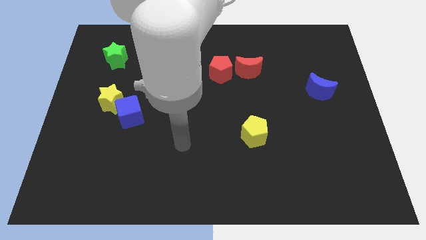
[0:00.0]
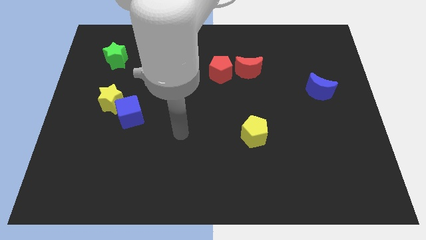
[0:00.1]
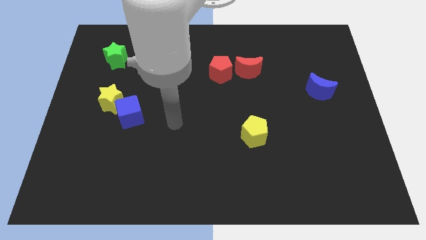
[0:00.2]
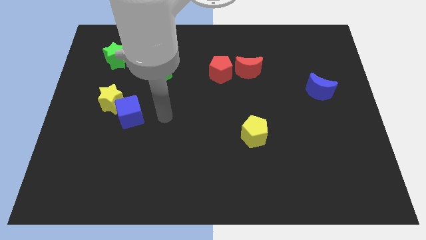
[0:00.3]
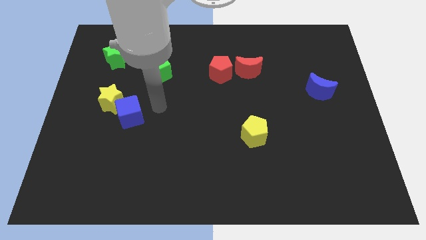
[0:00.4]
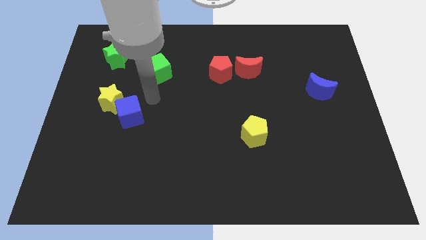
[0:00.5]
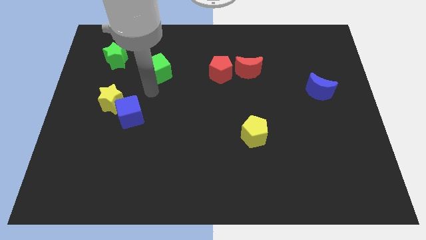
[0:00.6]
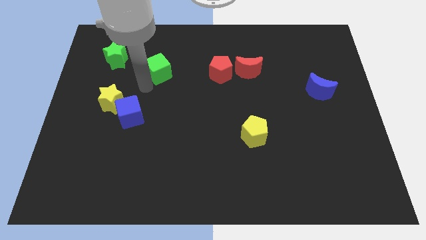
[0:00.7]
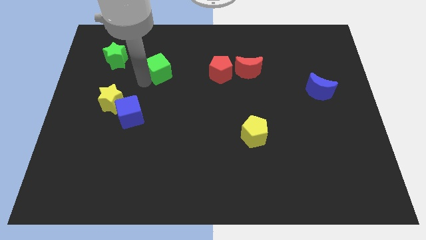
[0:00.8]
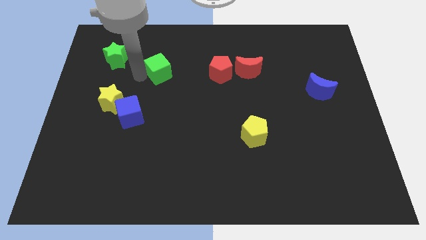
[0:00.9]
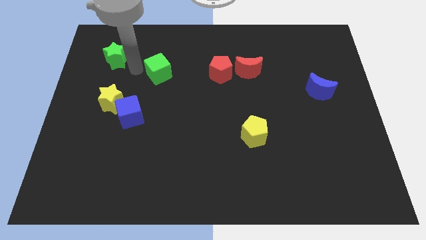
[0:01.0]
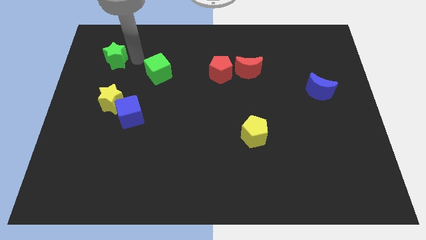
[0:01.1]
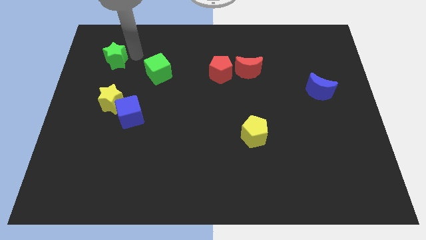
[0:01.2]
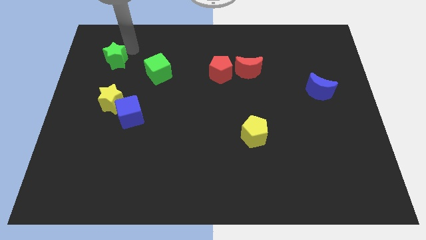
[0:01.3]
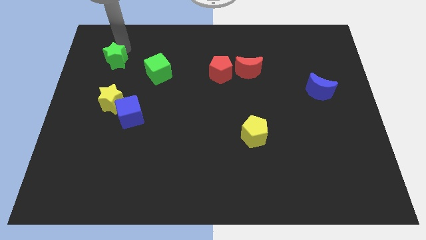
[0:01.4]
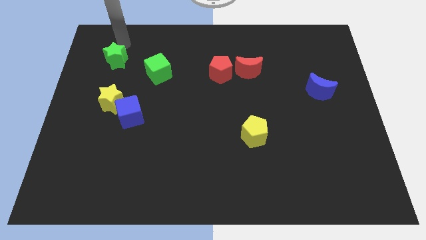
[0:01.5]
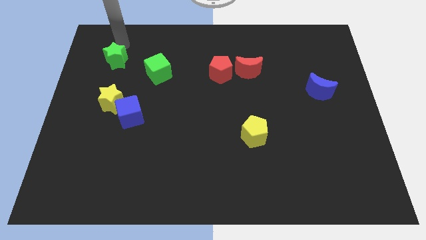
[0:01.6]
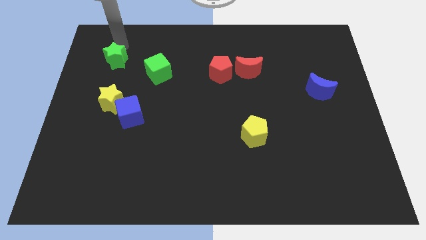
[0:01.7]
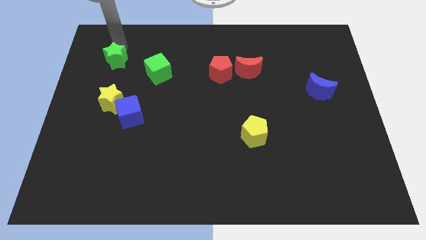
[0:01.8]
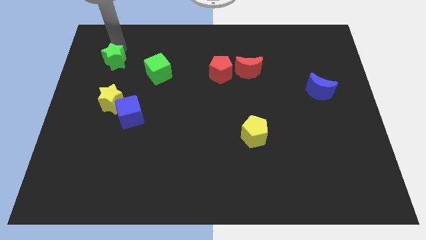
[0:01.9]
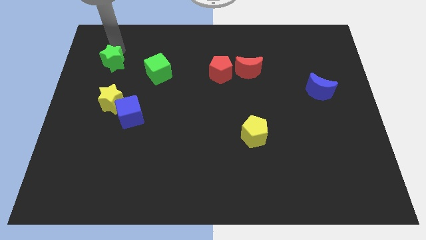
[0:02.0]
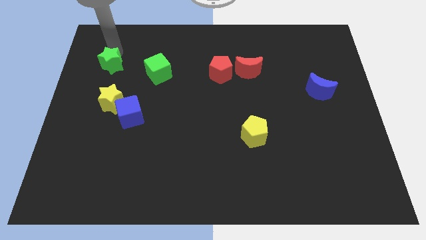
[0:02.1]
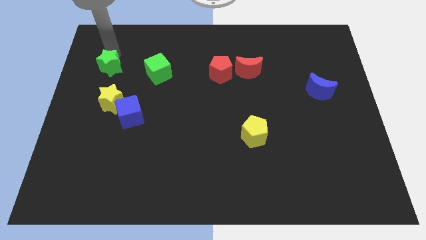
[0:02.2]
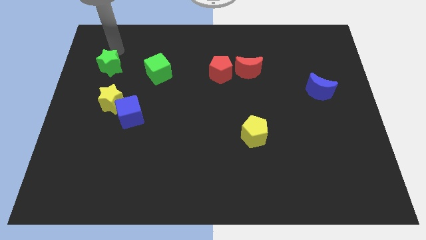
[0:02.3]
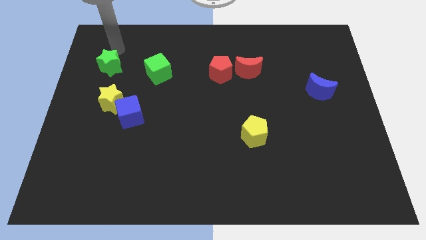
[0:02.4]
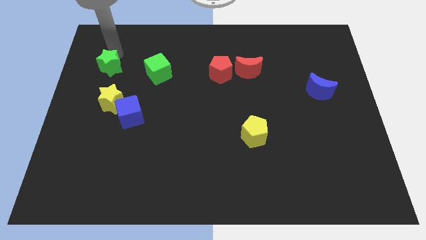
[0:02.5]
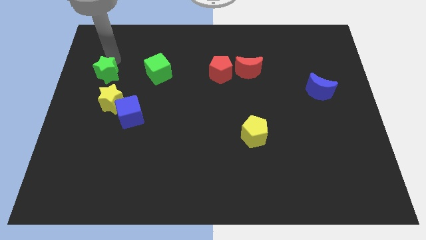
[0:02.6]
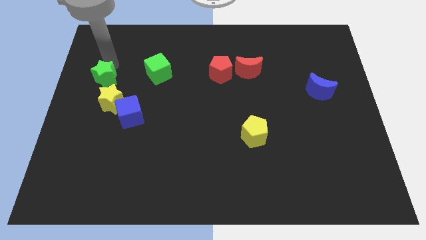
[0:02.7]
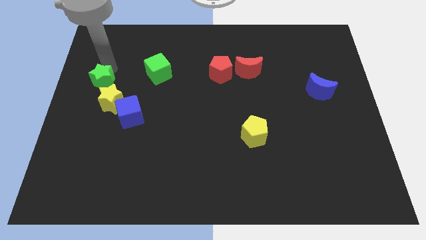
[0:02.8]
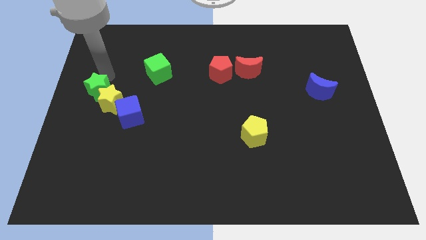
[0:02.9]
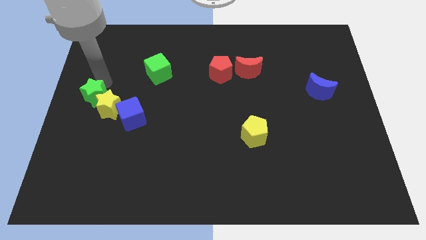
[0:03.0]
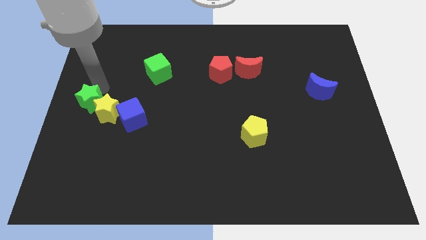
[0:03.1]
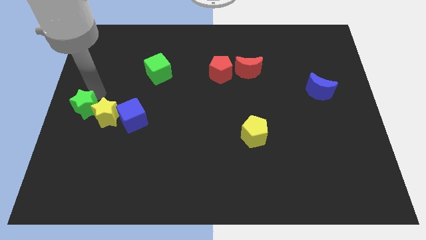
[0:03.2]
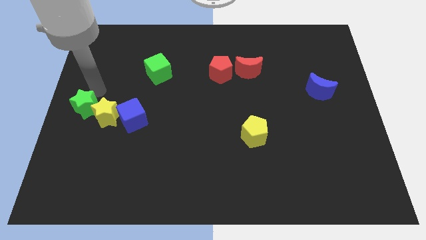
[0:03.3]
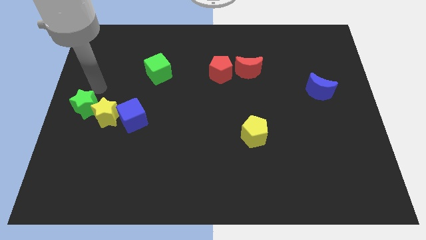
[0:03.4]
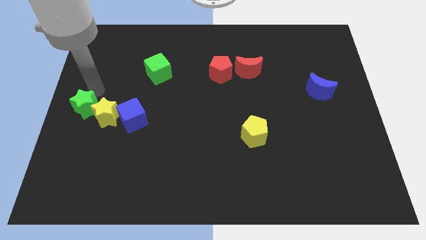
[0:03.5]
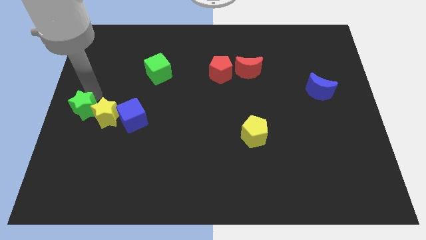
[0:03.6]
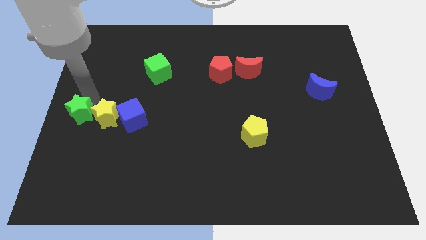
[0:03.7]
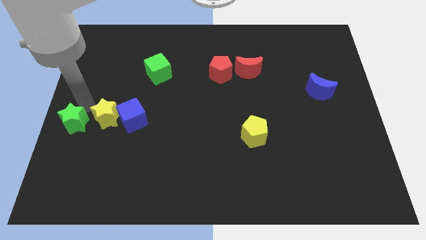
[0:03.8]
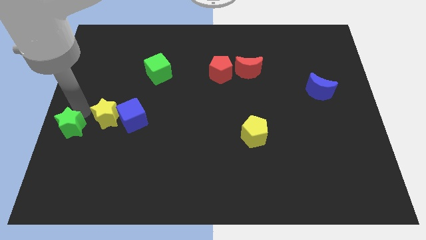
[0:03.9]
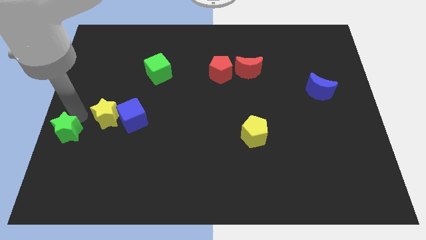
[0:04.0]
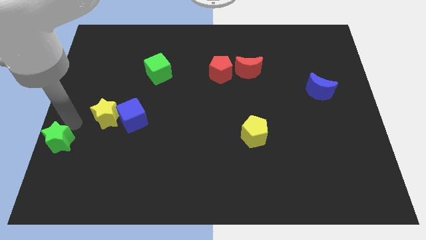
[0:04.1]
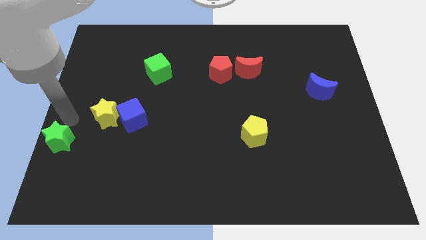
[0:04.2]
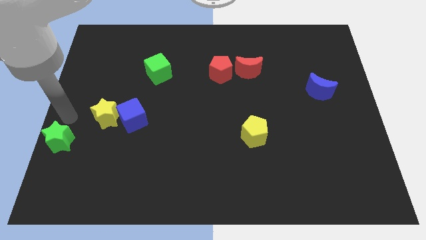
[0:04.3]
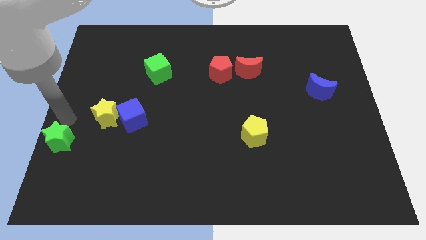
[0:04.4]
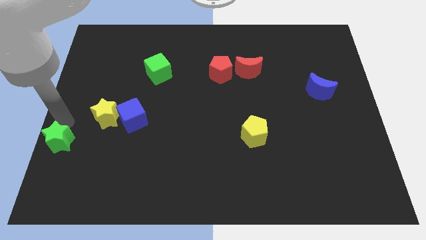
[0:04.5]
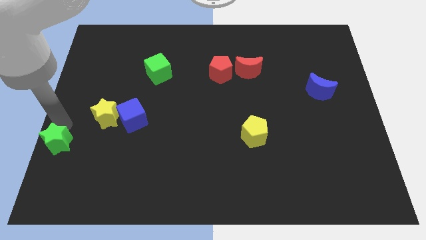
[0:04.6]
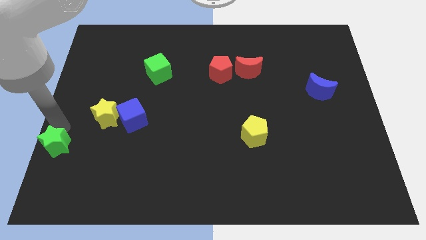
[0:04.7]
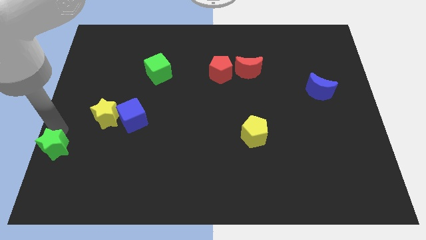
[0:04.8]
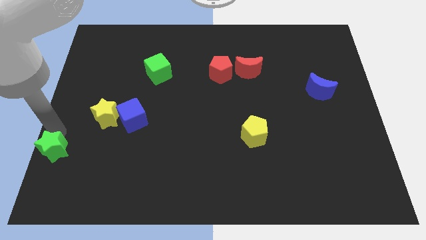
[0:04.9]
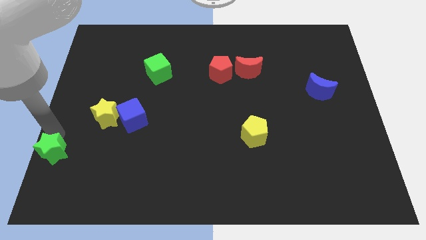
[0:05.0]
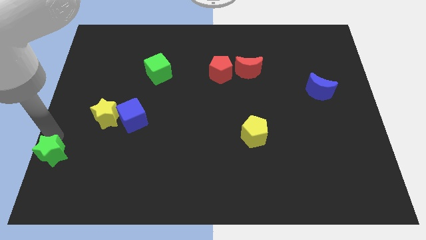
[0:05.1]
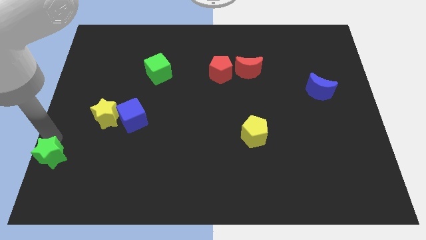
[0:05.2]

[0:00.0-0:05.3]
put the green star to the bottom left

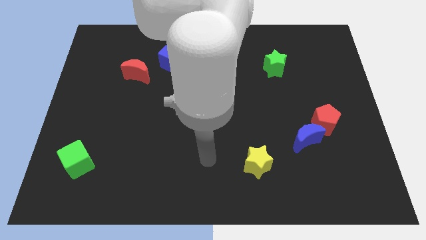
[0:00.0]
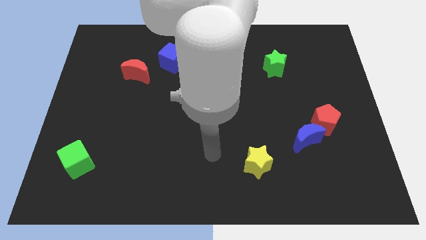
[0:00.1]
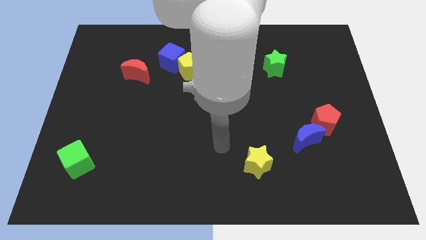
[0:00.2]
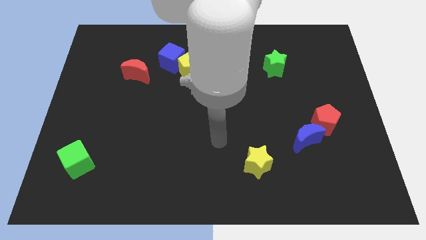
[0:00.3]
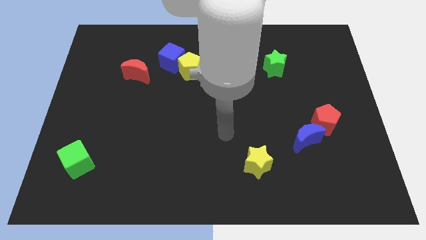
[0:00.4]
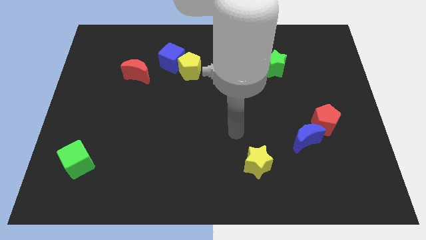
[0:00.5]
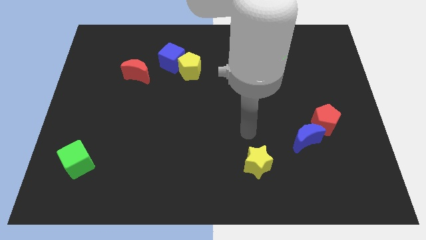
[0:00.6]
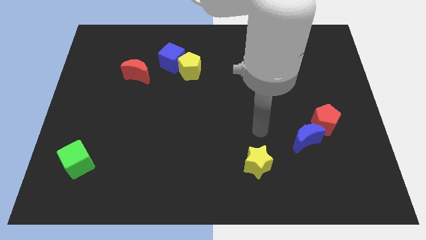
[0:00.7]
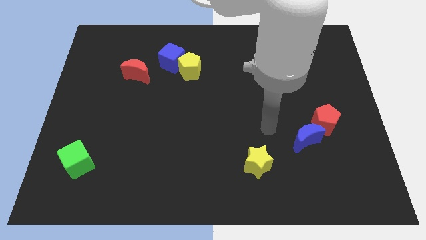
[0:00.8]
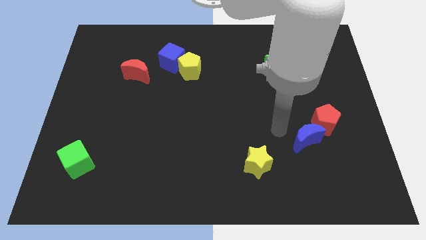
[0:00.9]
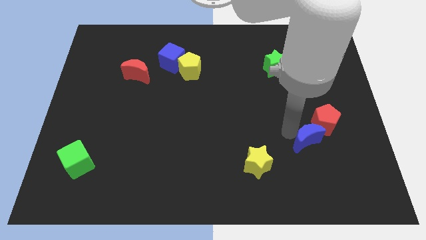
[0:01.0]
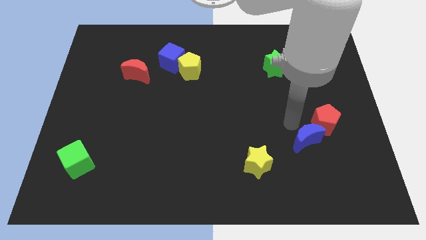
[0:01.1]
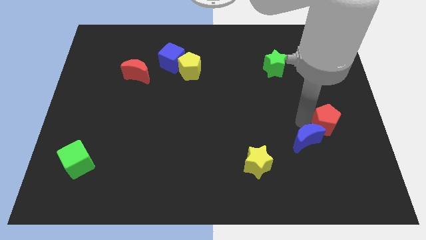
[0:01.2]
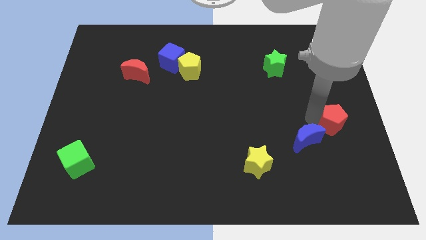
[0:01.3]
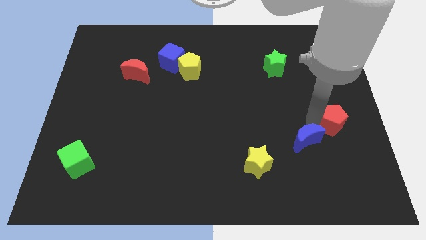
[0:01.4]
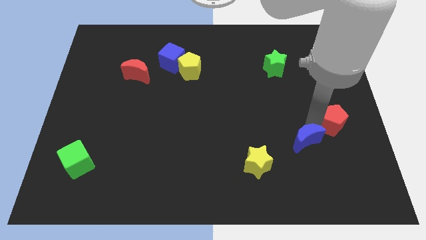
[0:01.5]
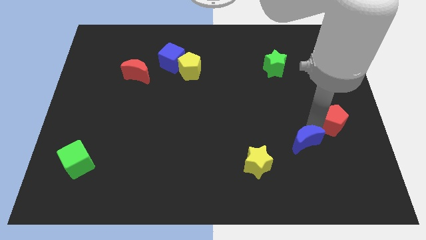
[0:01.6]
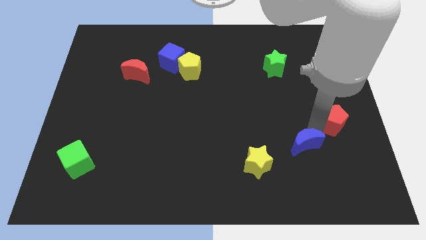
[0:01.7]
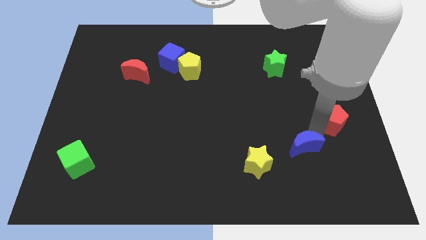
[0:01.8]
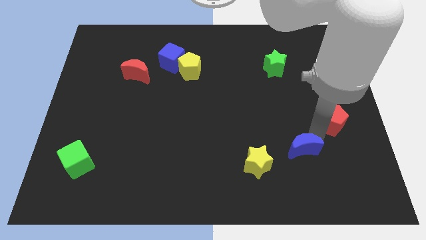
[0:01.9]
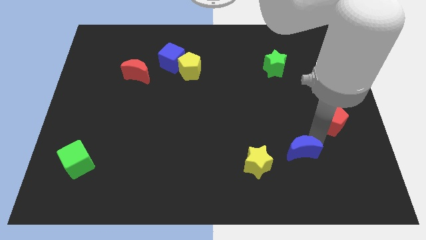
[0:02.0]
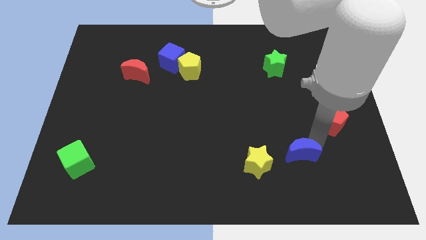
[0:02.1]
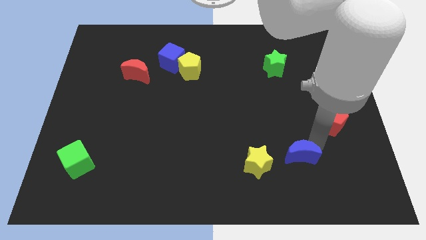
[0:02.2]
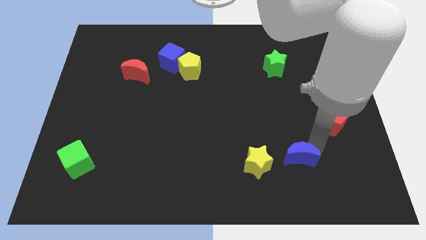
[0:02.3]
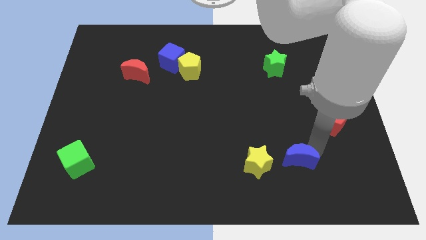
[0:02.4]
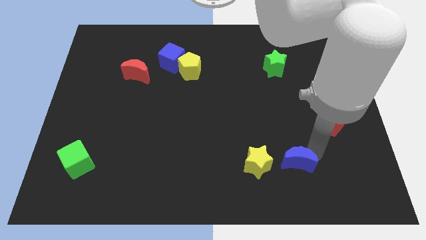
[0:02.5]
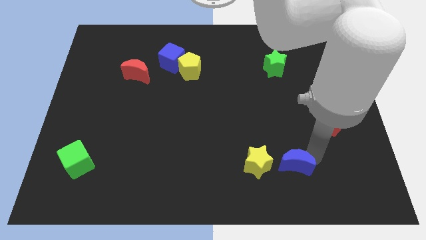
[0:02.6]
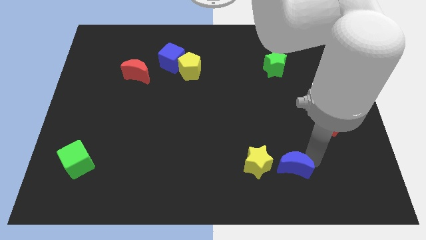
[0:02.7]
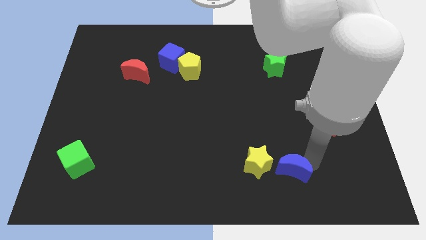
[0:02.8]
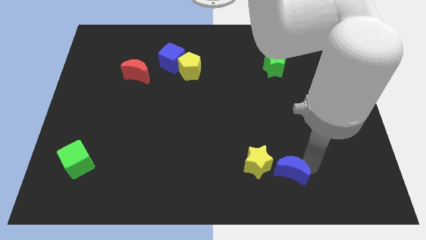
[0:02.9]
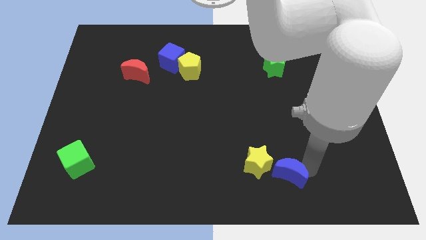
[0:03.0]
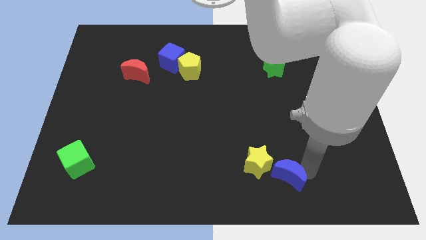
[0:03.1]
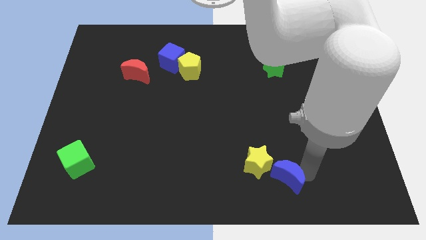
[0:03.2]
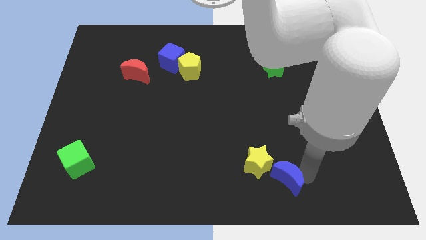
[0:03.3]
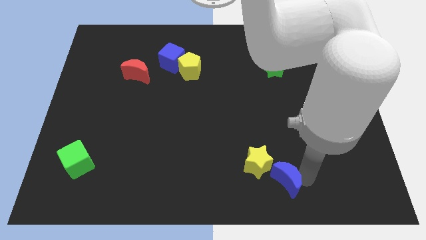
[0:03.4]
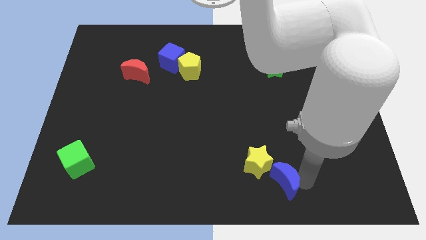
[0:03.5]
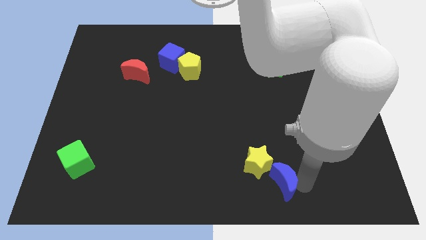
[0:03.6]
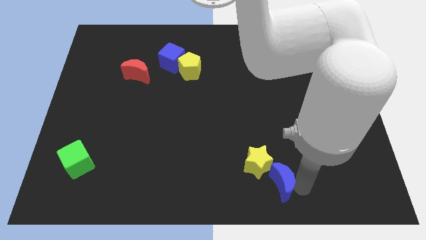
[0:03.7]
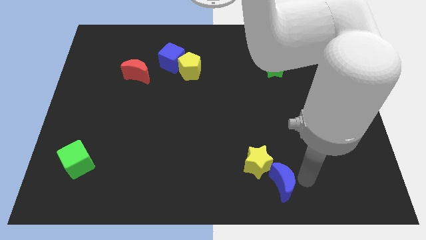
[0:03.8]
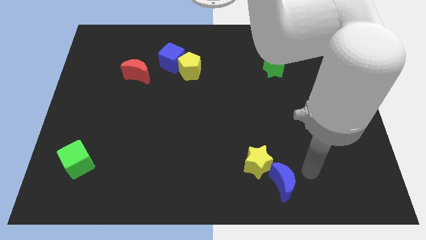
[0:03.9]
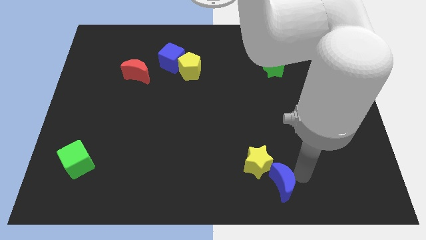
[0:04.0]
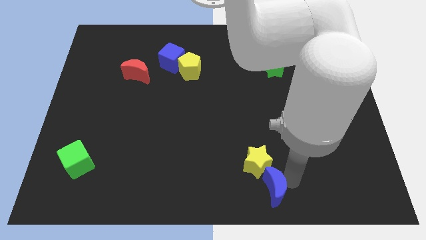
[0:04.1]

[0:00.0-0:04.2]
move the blue moon to the bottom side
